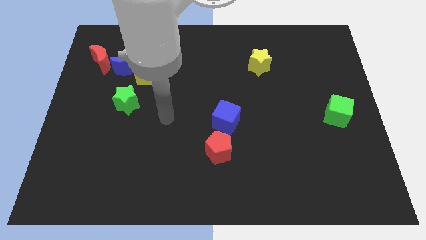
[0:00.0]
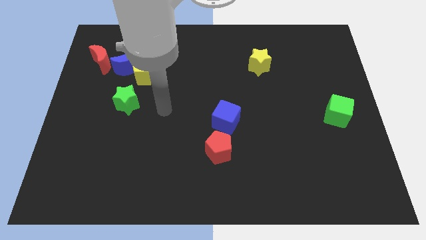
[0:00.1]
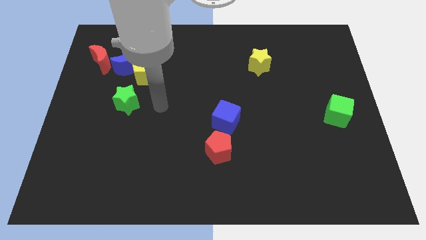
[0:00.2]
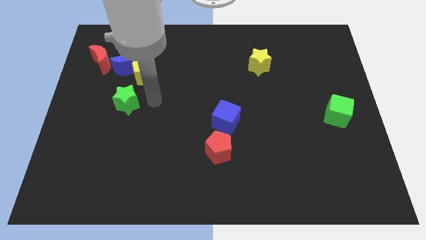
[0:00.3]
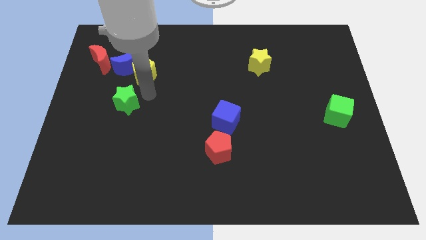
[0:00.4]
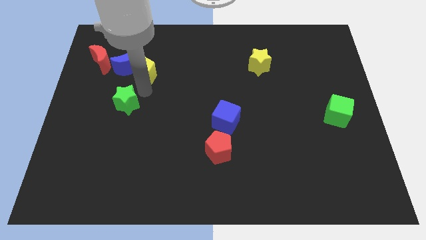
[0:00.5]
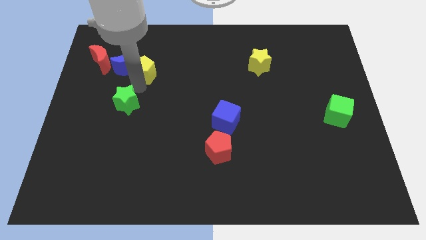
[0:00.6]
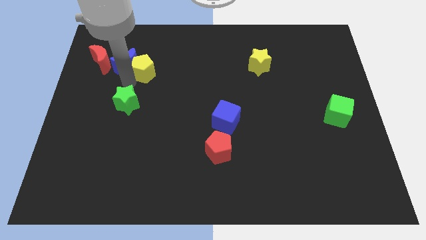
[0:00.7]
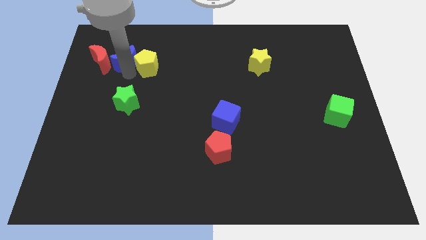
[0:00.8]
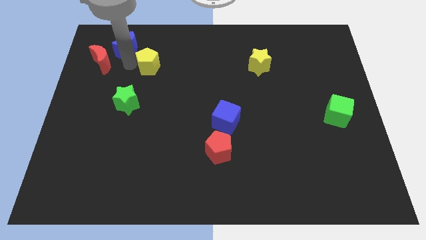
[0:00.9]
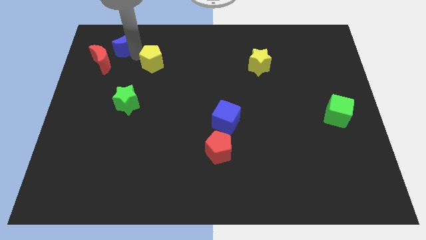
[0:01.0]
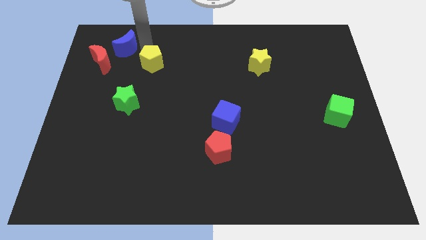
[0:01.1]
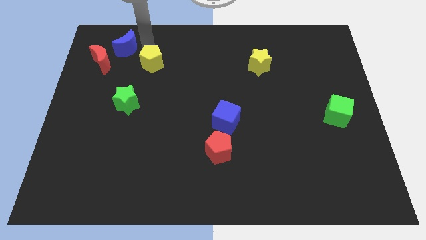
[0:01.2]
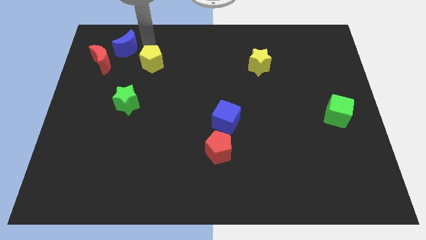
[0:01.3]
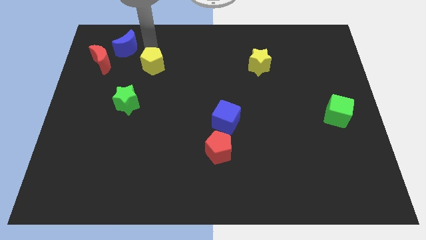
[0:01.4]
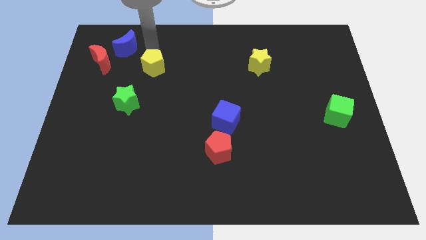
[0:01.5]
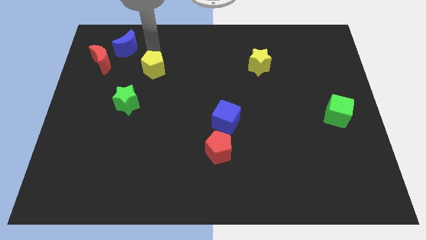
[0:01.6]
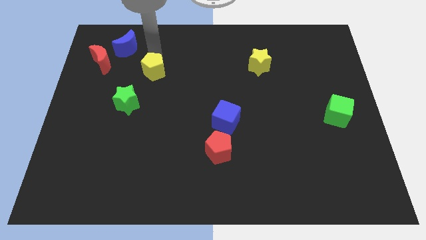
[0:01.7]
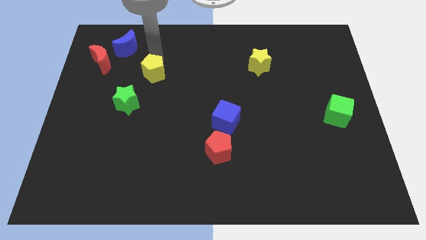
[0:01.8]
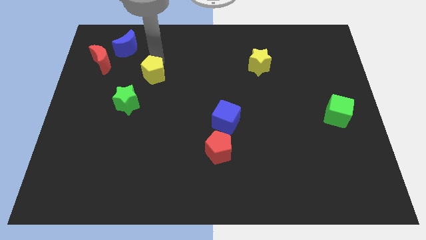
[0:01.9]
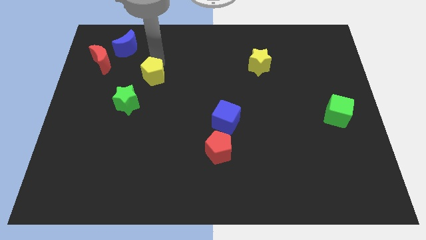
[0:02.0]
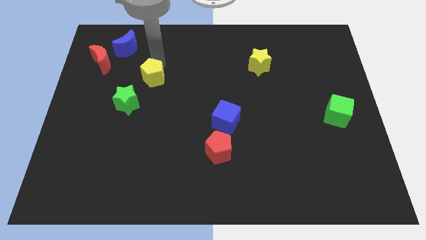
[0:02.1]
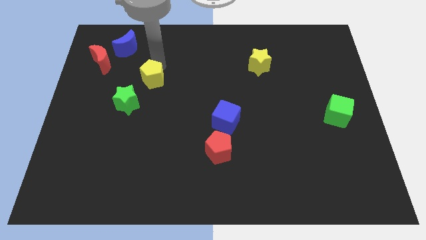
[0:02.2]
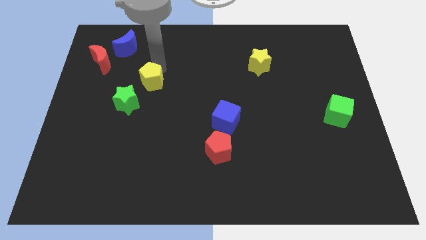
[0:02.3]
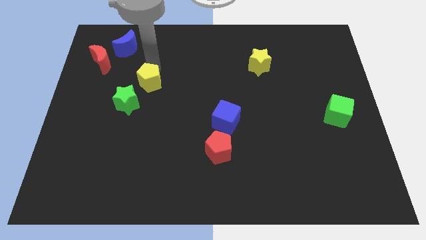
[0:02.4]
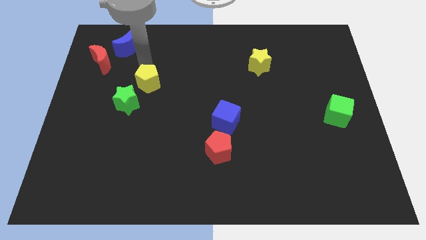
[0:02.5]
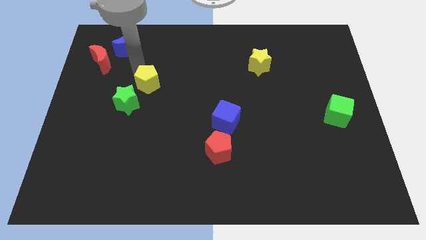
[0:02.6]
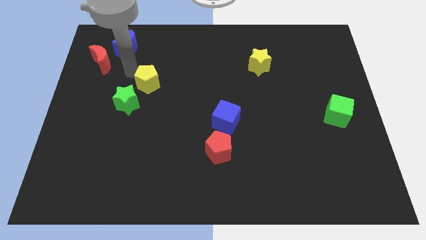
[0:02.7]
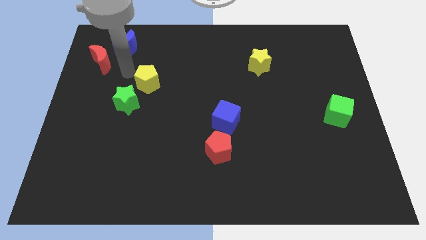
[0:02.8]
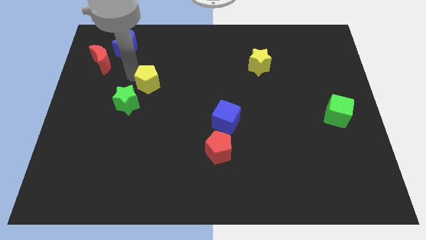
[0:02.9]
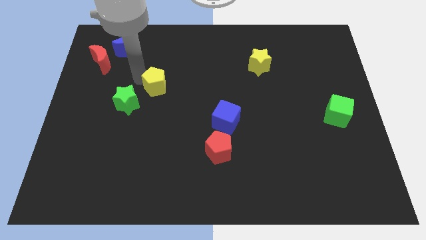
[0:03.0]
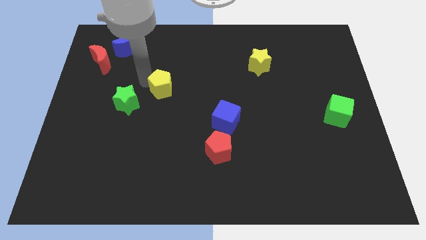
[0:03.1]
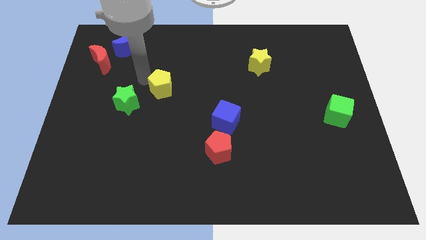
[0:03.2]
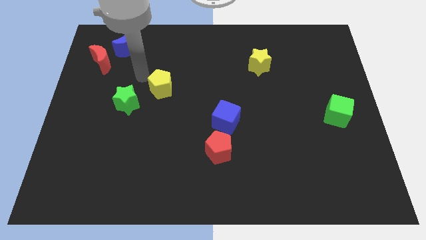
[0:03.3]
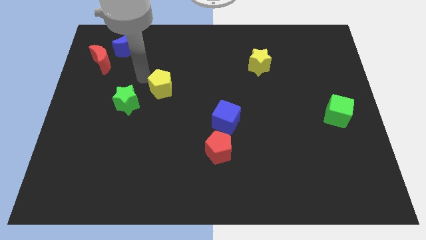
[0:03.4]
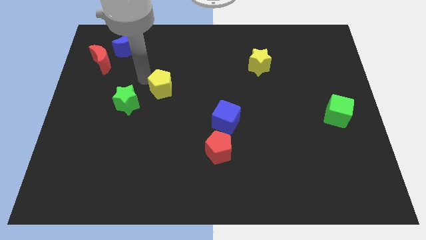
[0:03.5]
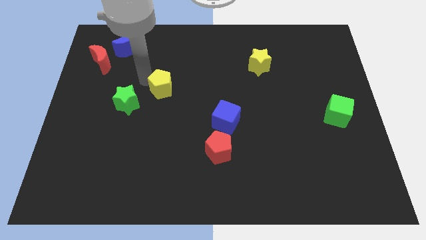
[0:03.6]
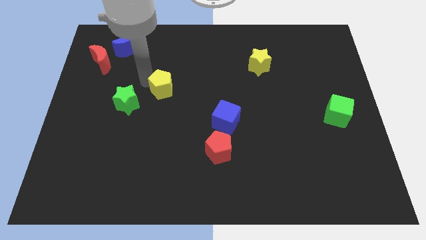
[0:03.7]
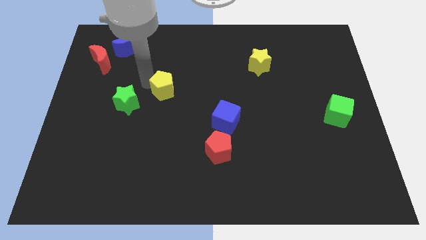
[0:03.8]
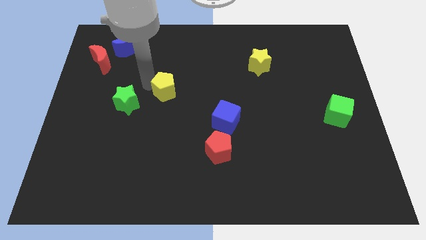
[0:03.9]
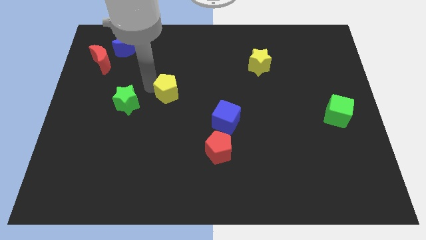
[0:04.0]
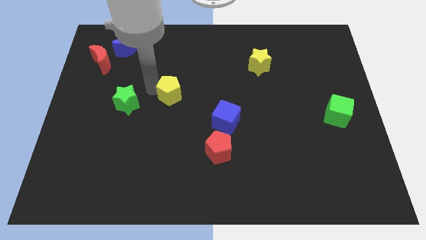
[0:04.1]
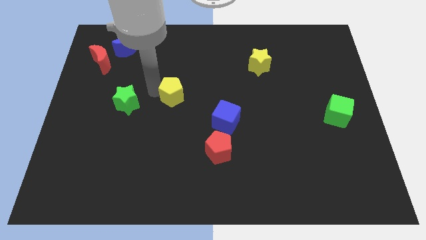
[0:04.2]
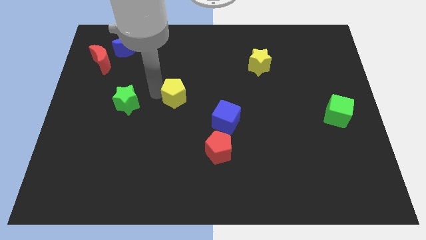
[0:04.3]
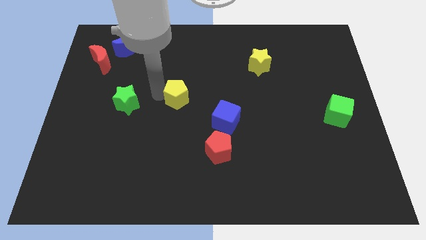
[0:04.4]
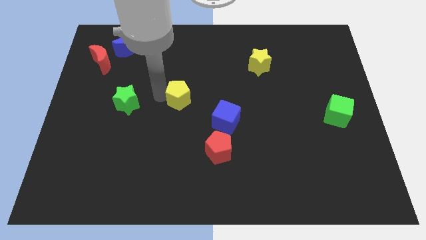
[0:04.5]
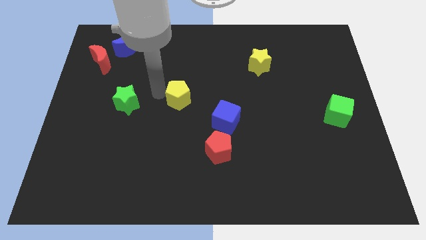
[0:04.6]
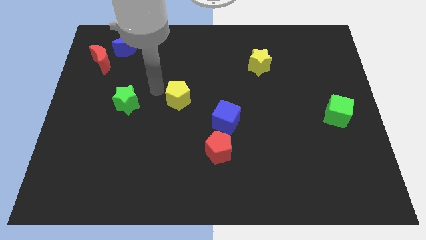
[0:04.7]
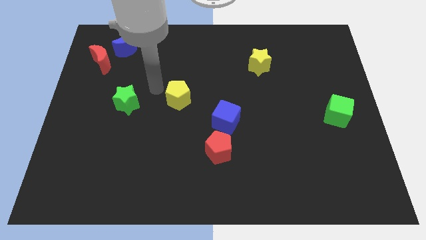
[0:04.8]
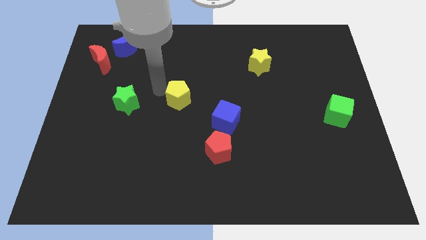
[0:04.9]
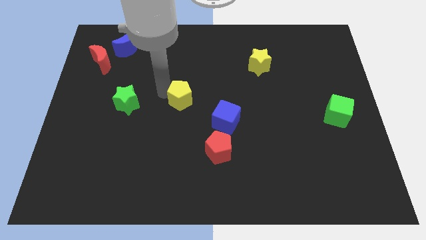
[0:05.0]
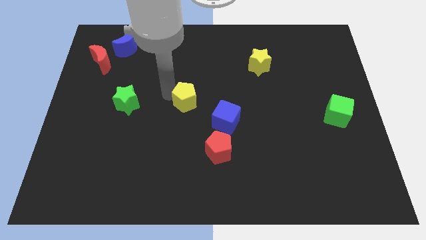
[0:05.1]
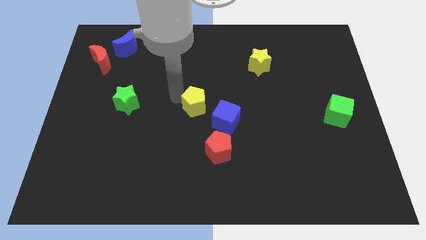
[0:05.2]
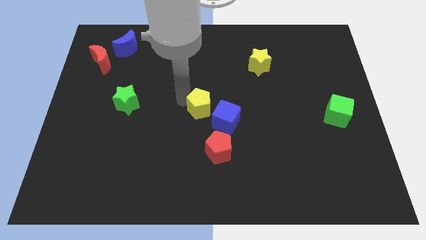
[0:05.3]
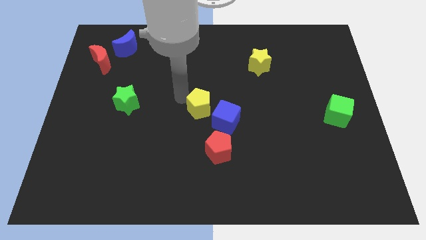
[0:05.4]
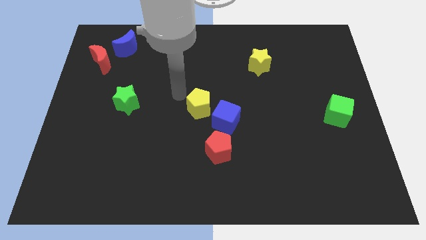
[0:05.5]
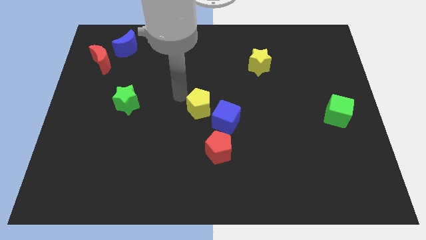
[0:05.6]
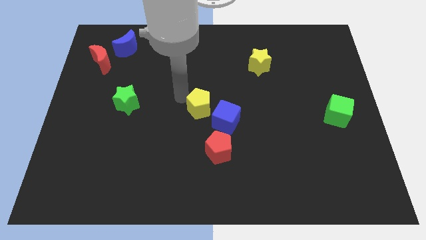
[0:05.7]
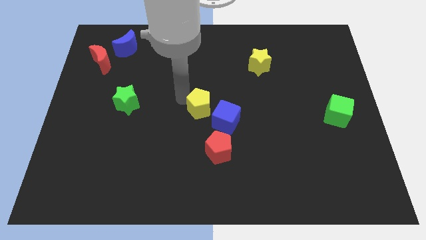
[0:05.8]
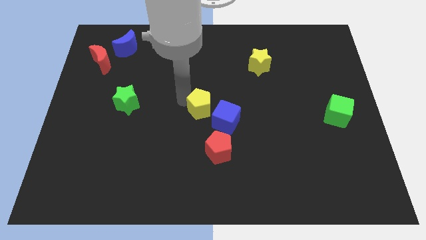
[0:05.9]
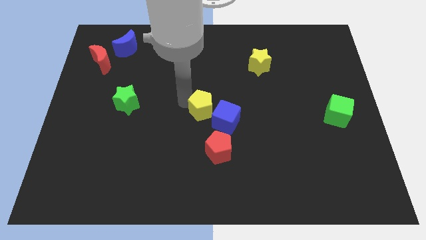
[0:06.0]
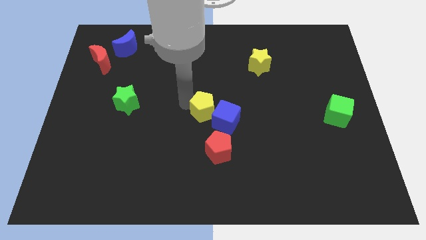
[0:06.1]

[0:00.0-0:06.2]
push the yellow pentagon towards the blue cube
